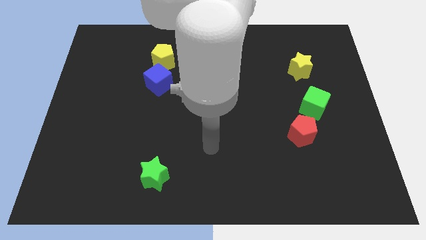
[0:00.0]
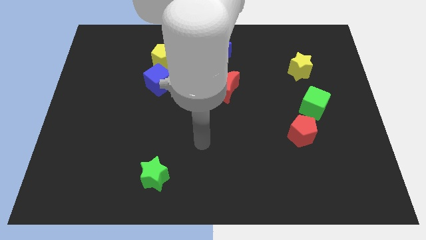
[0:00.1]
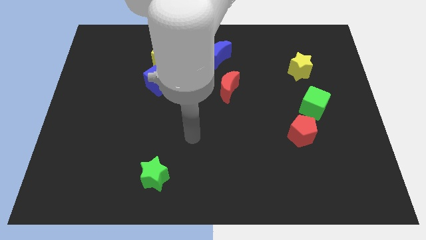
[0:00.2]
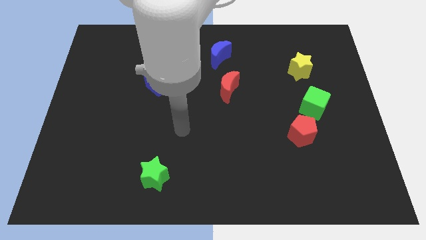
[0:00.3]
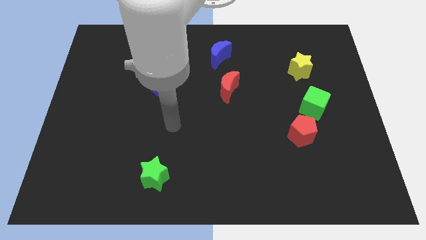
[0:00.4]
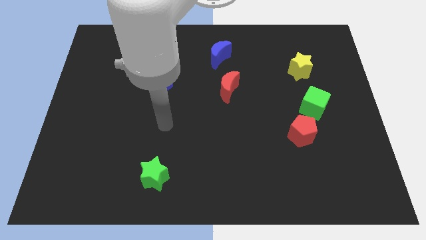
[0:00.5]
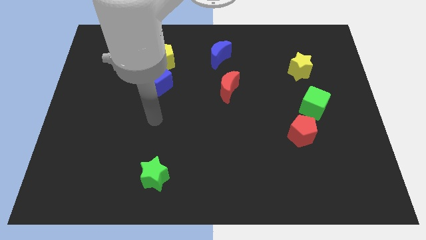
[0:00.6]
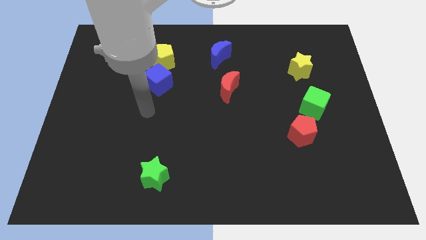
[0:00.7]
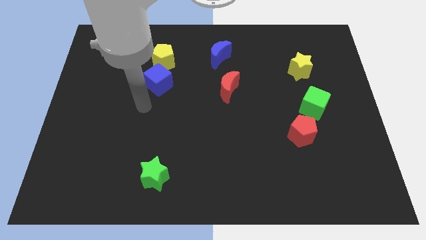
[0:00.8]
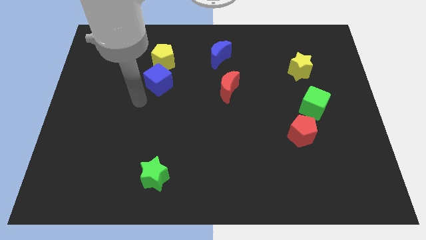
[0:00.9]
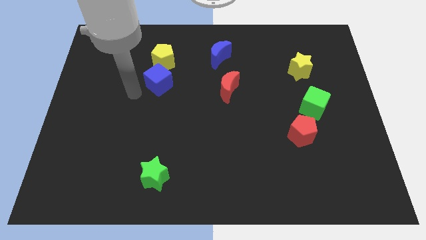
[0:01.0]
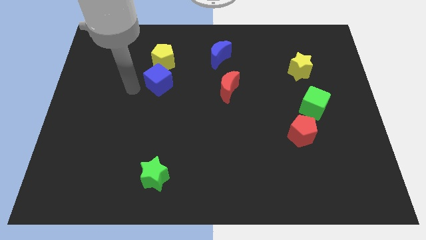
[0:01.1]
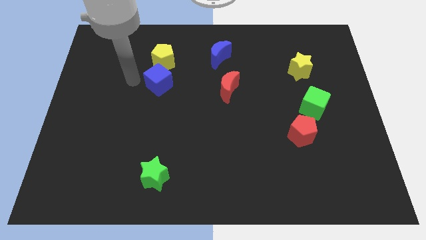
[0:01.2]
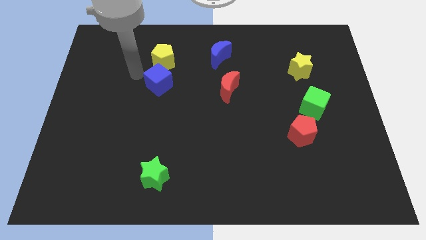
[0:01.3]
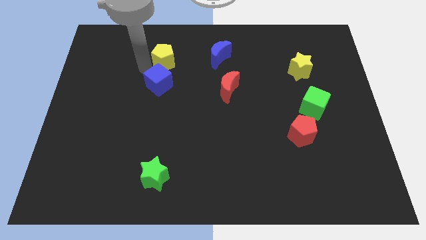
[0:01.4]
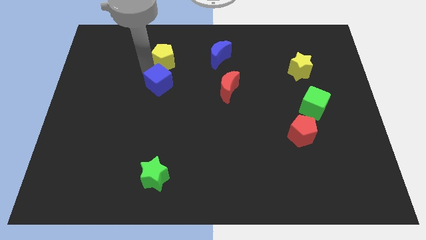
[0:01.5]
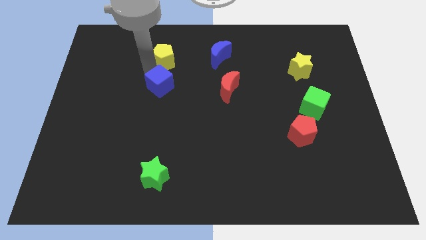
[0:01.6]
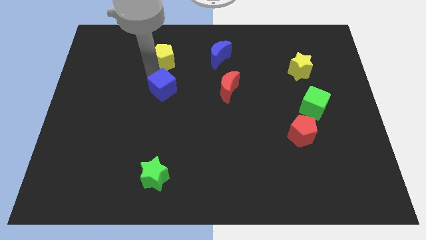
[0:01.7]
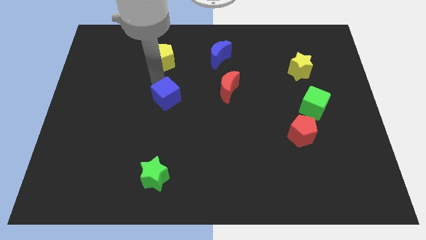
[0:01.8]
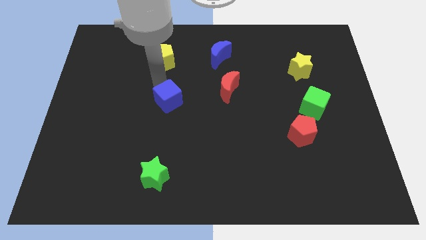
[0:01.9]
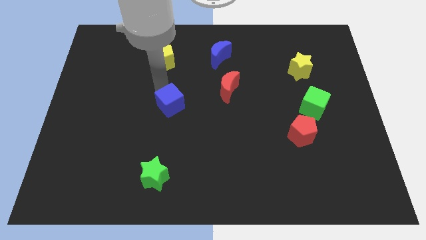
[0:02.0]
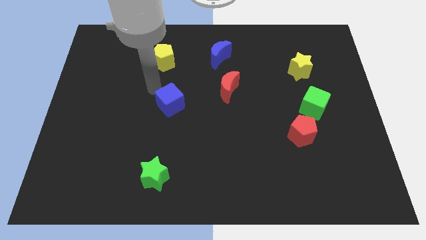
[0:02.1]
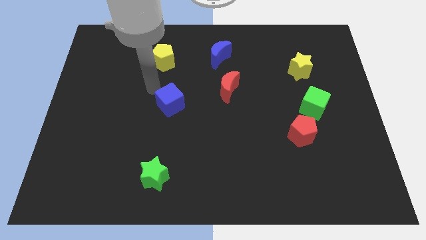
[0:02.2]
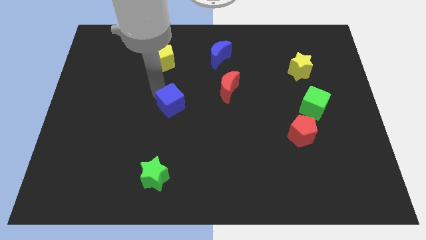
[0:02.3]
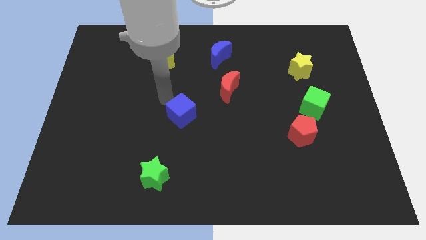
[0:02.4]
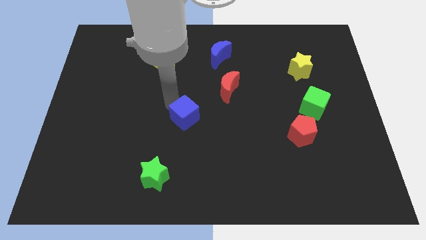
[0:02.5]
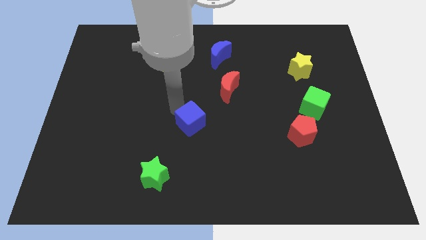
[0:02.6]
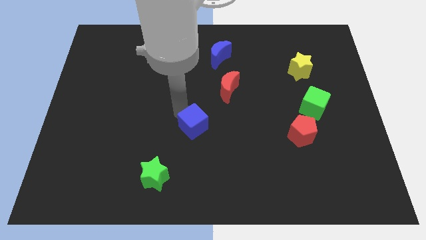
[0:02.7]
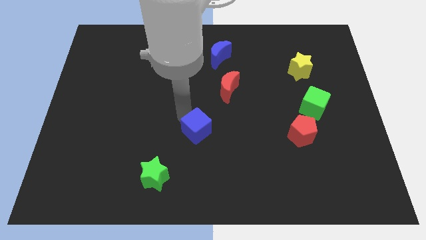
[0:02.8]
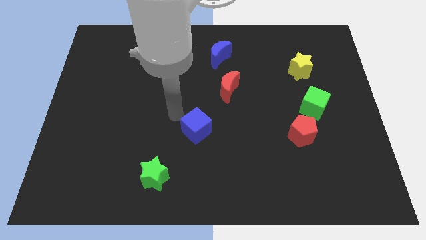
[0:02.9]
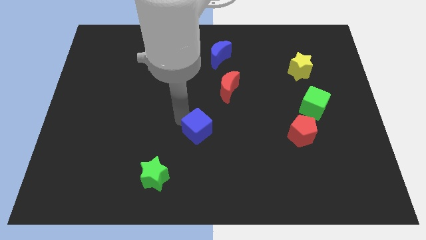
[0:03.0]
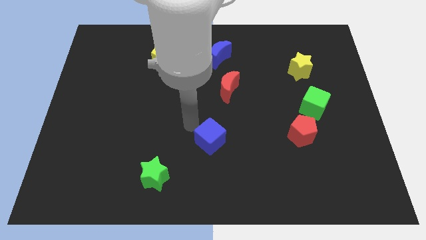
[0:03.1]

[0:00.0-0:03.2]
push the blue cube diagonally downwards and to the right

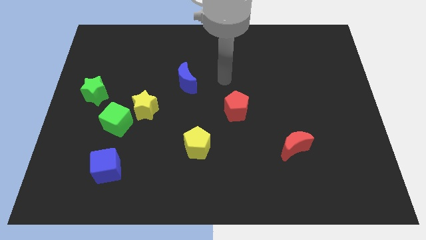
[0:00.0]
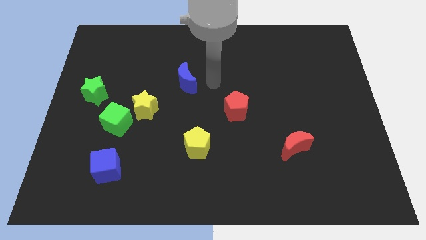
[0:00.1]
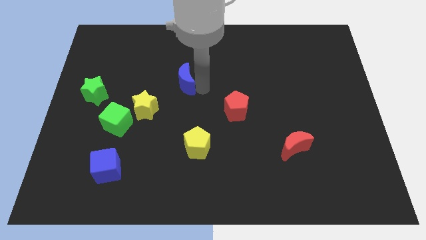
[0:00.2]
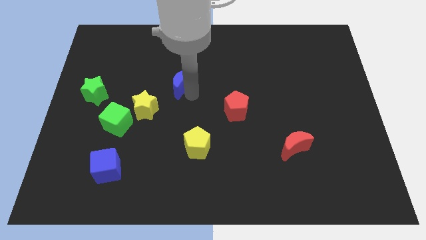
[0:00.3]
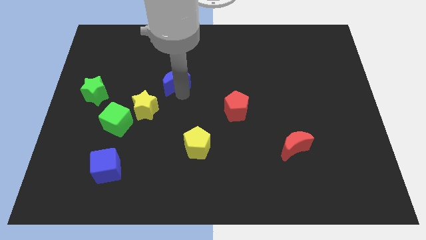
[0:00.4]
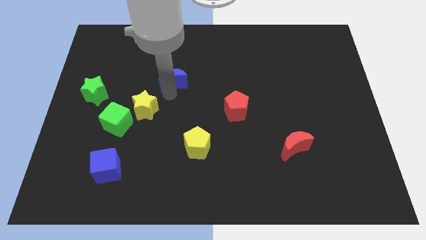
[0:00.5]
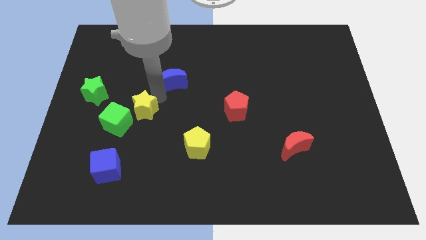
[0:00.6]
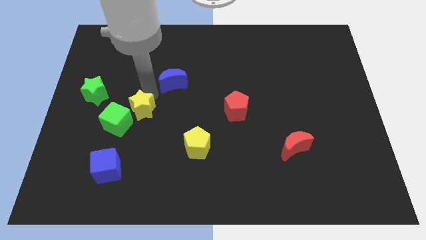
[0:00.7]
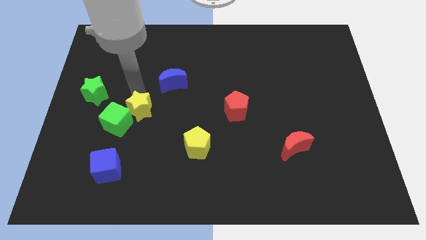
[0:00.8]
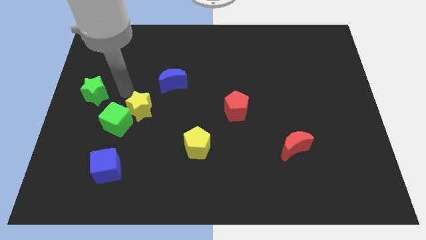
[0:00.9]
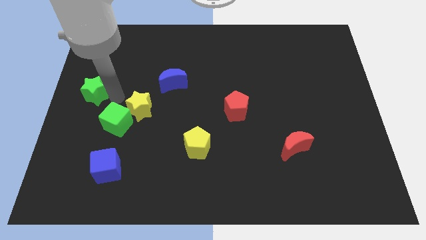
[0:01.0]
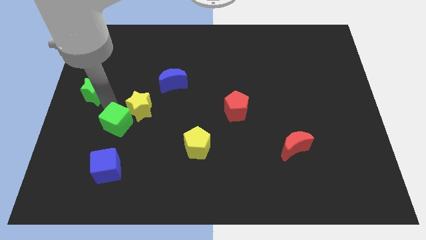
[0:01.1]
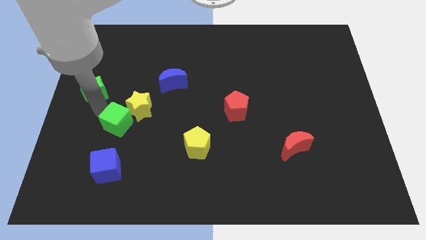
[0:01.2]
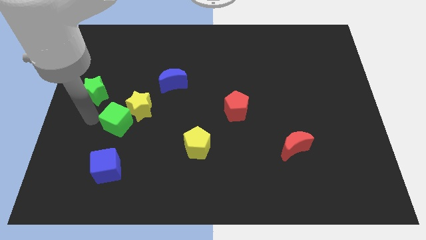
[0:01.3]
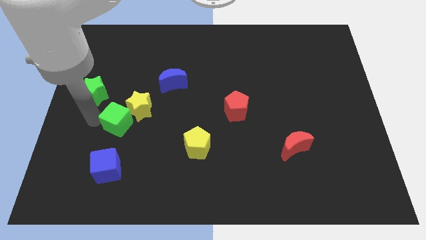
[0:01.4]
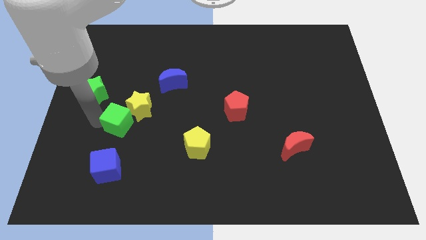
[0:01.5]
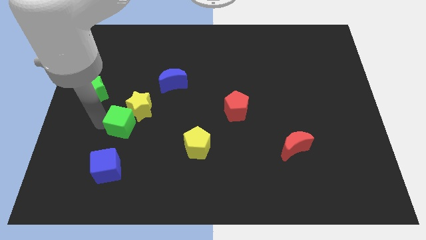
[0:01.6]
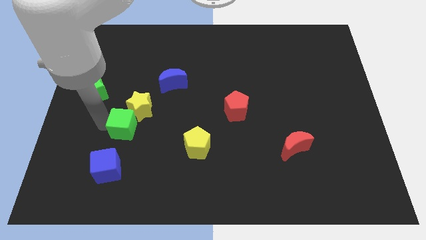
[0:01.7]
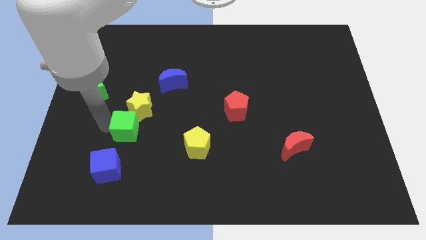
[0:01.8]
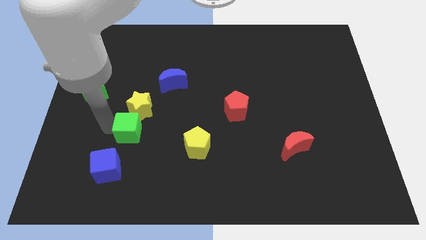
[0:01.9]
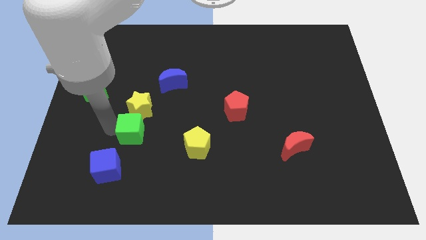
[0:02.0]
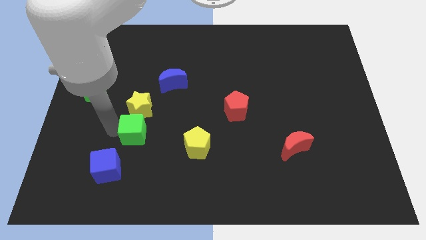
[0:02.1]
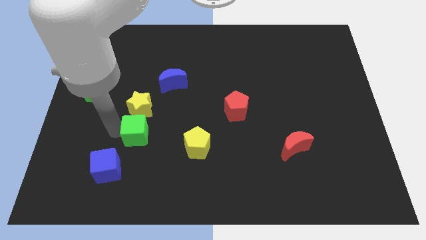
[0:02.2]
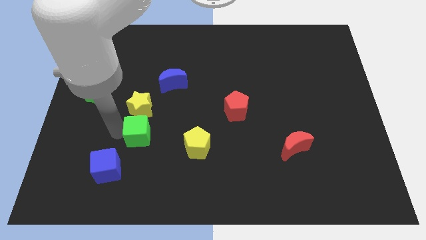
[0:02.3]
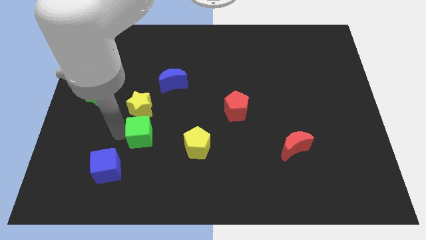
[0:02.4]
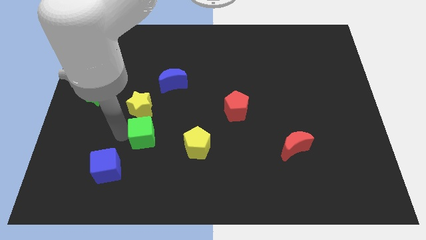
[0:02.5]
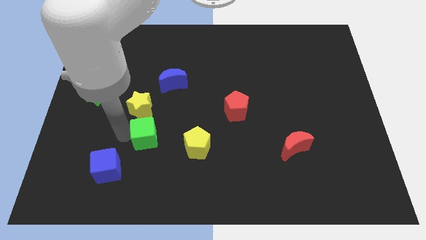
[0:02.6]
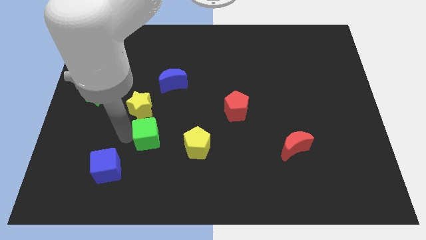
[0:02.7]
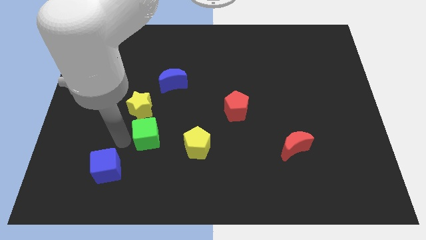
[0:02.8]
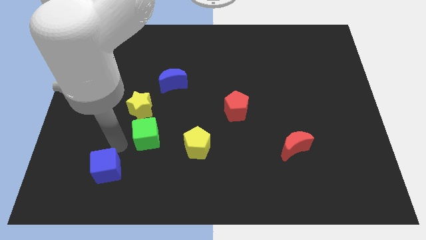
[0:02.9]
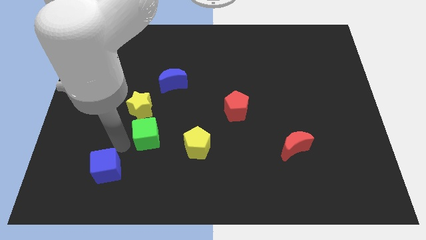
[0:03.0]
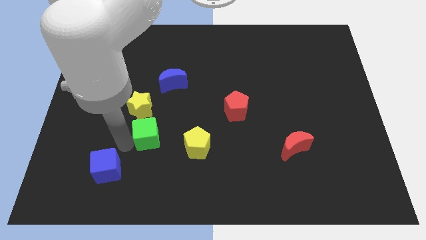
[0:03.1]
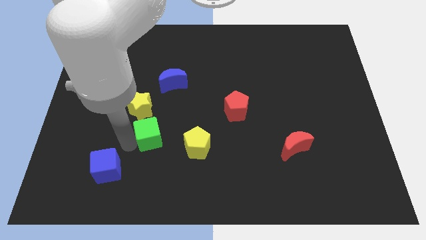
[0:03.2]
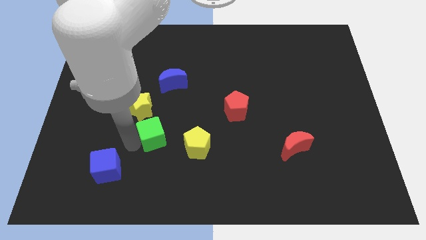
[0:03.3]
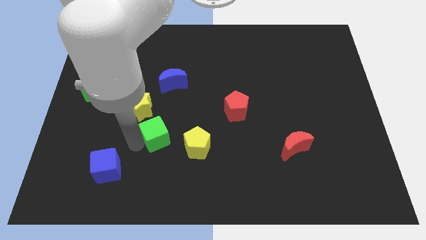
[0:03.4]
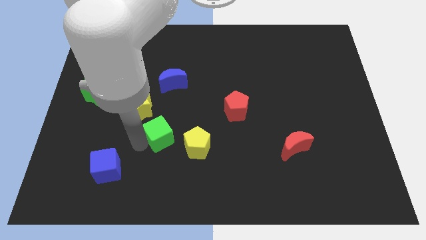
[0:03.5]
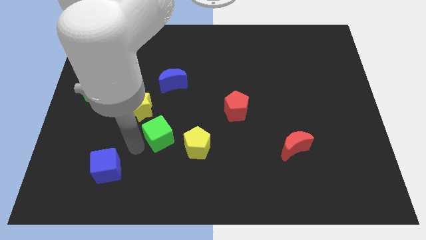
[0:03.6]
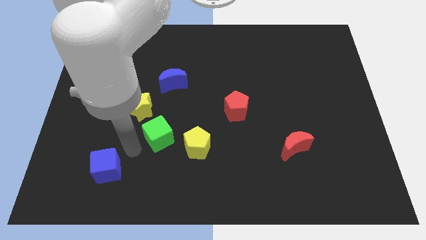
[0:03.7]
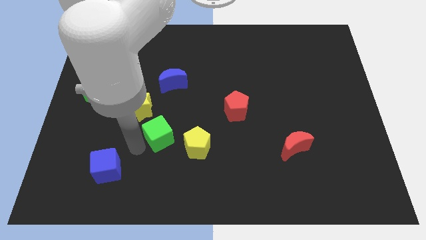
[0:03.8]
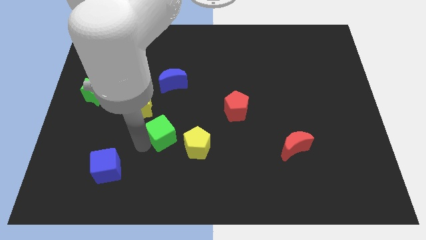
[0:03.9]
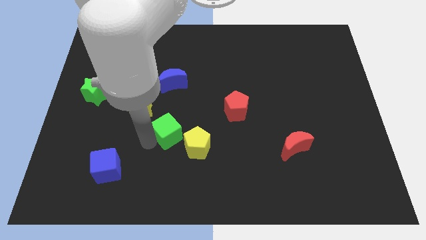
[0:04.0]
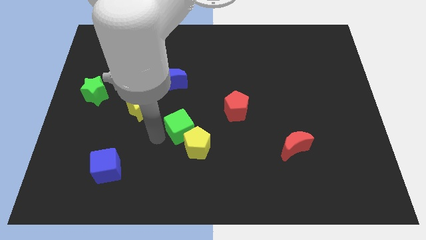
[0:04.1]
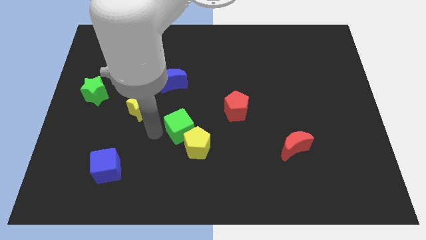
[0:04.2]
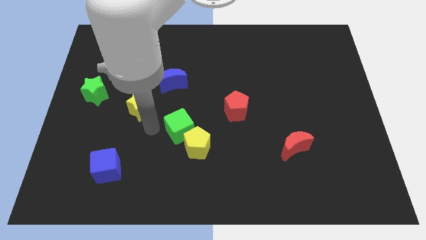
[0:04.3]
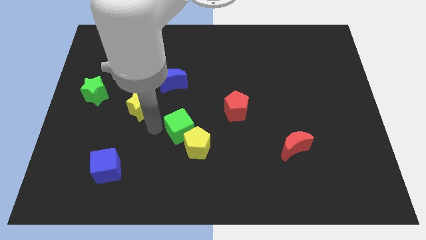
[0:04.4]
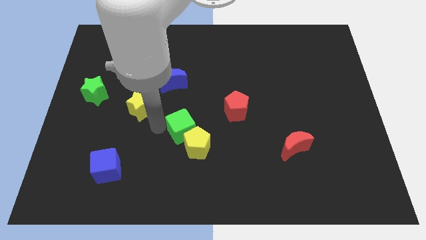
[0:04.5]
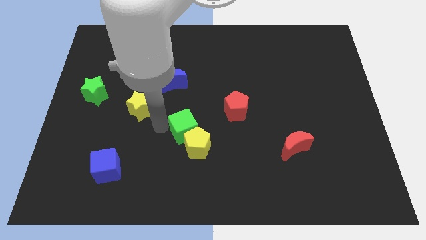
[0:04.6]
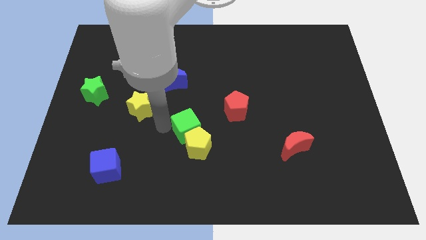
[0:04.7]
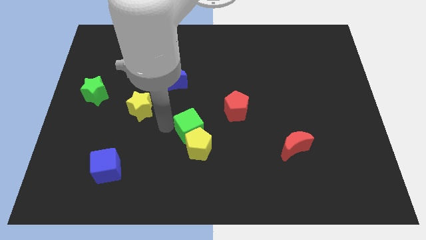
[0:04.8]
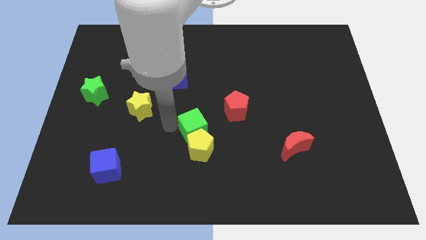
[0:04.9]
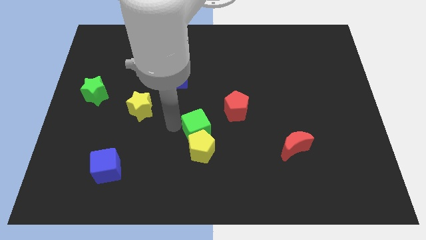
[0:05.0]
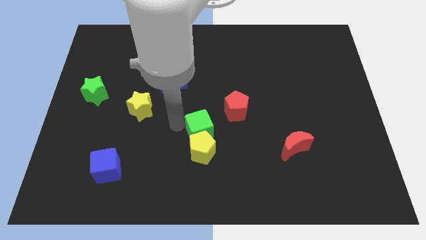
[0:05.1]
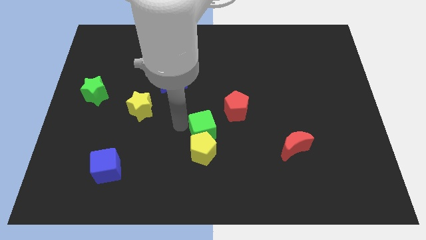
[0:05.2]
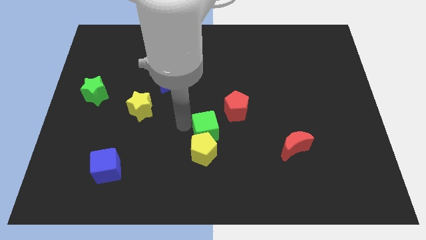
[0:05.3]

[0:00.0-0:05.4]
slide the green cube to the right
